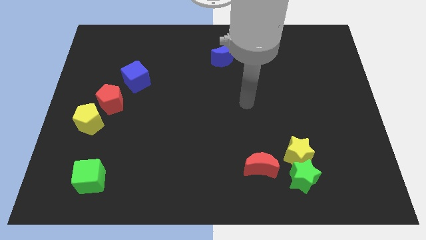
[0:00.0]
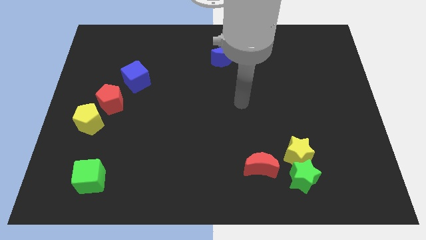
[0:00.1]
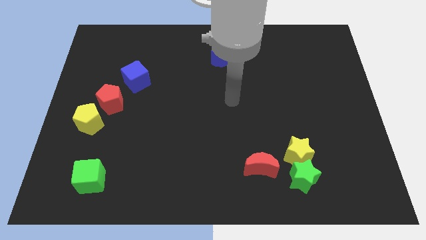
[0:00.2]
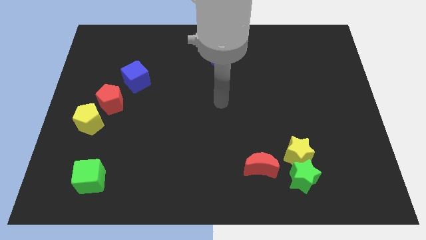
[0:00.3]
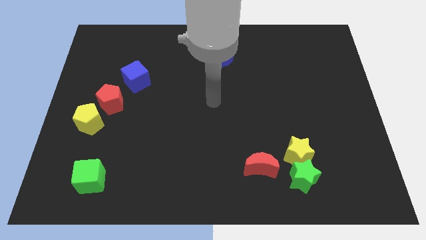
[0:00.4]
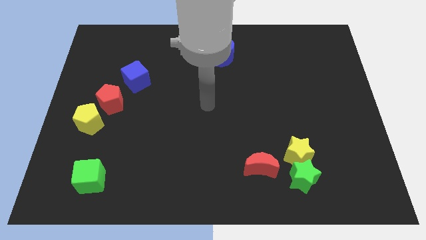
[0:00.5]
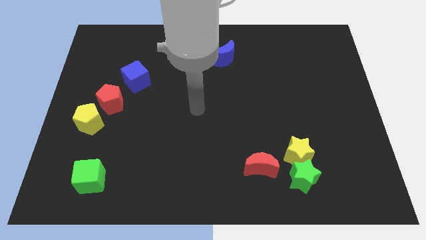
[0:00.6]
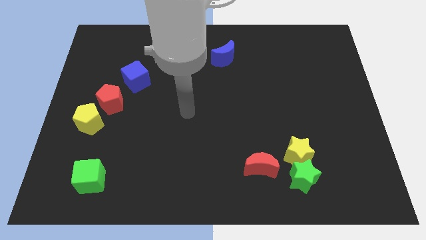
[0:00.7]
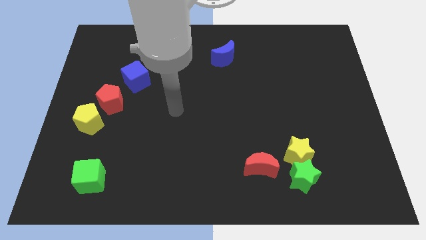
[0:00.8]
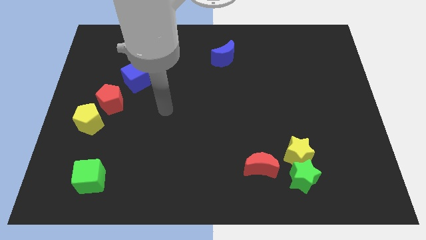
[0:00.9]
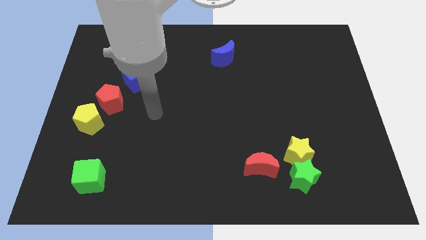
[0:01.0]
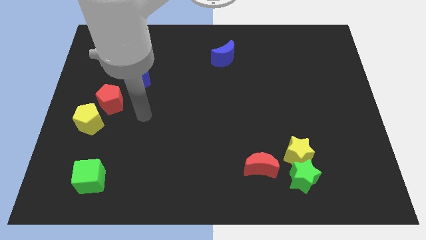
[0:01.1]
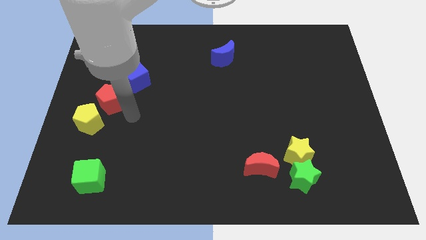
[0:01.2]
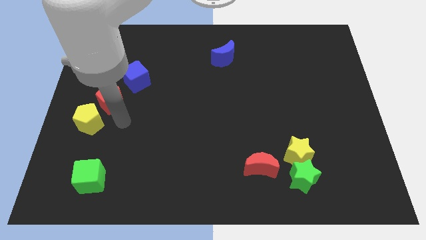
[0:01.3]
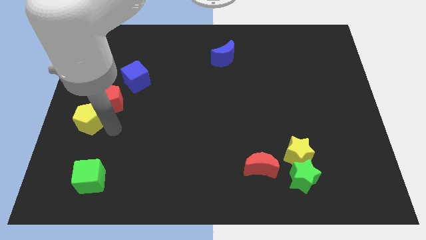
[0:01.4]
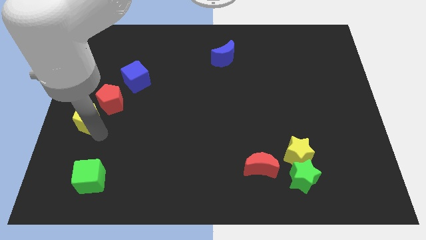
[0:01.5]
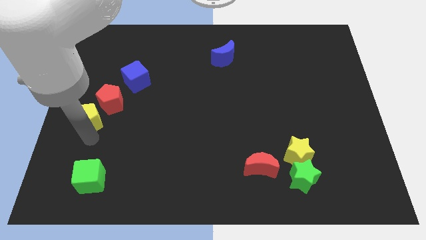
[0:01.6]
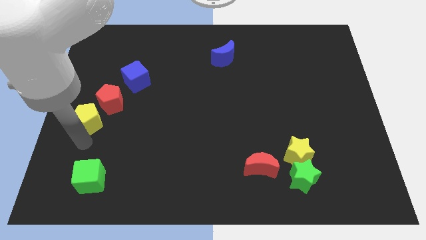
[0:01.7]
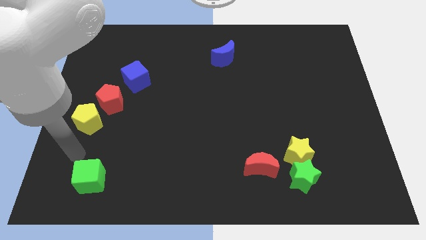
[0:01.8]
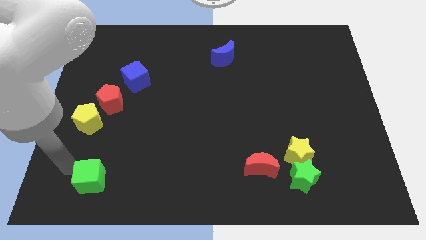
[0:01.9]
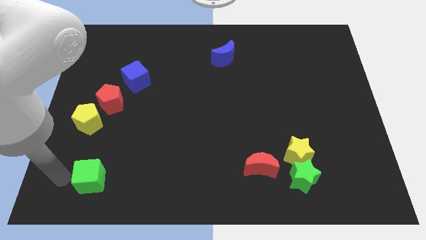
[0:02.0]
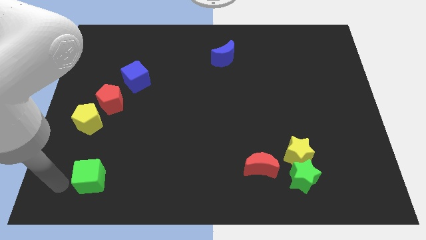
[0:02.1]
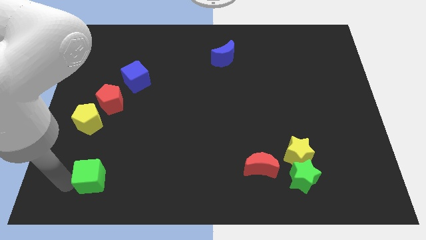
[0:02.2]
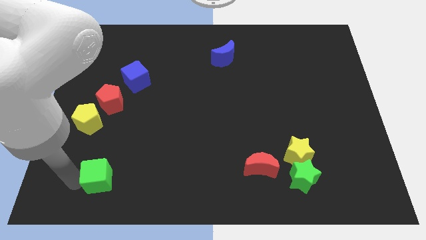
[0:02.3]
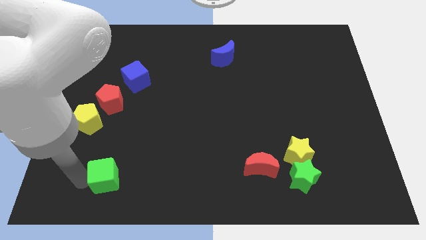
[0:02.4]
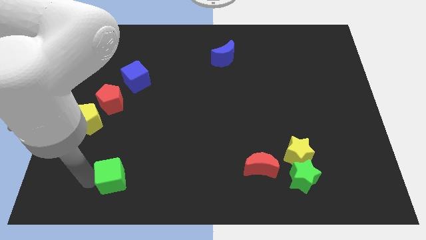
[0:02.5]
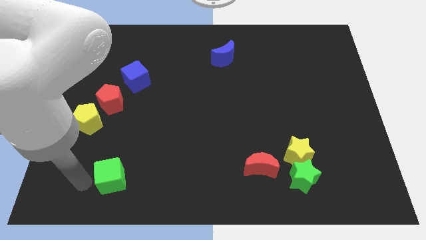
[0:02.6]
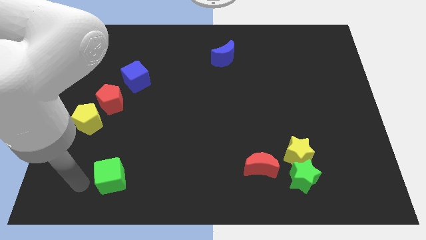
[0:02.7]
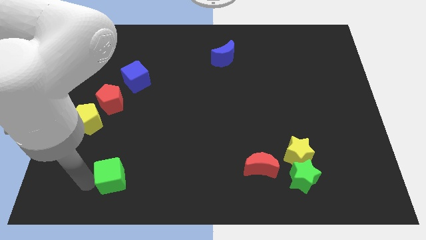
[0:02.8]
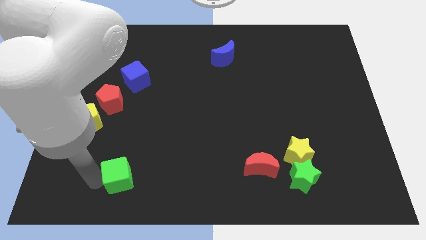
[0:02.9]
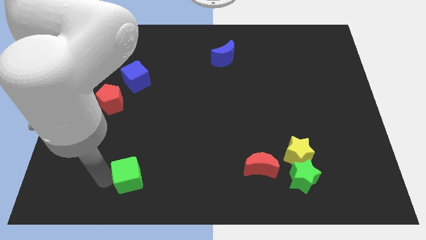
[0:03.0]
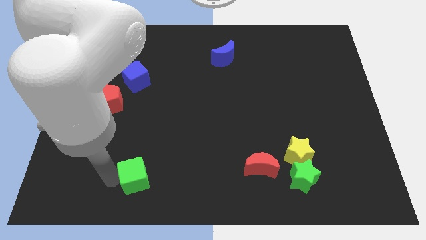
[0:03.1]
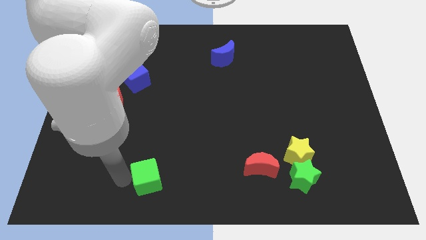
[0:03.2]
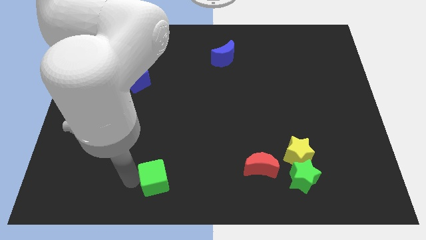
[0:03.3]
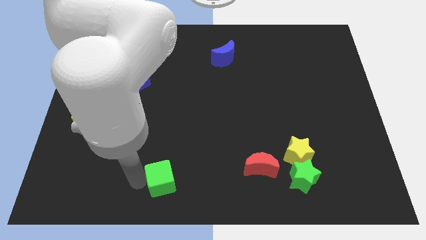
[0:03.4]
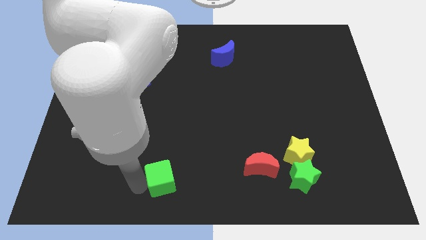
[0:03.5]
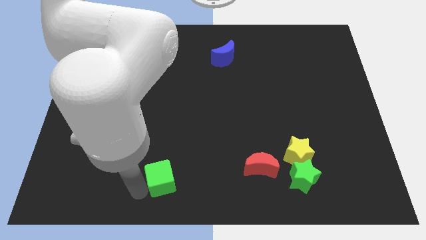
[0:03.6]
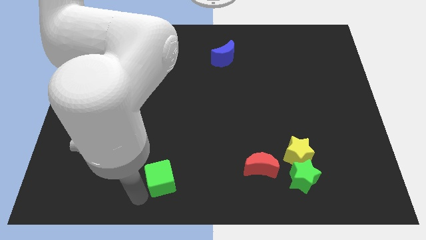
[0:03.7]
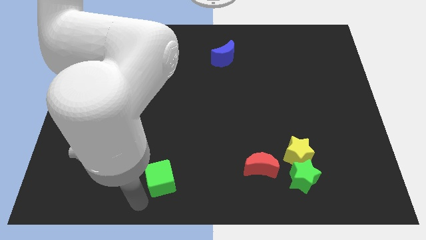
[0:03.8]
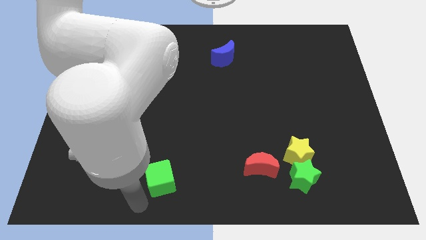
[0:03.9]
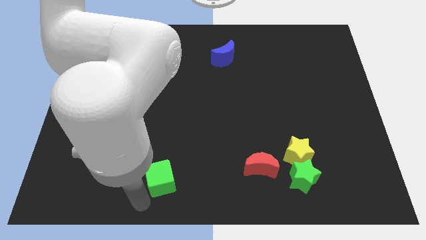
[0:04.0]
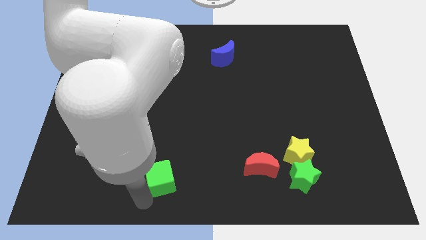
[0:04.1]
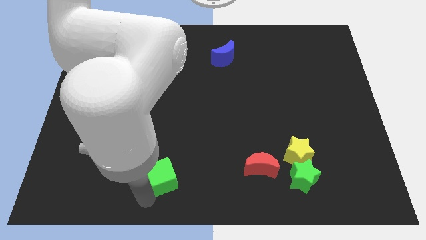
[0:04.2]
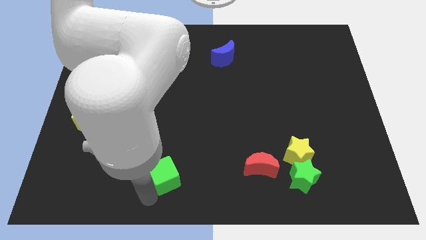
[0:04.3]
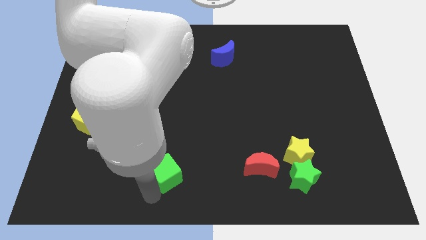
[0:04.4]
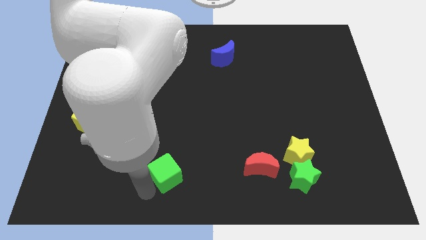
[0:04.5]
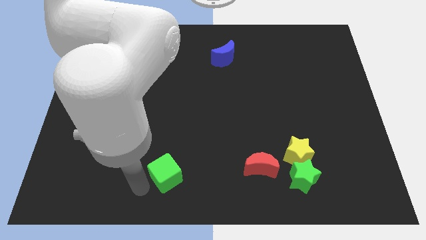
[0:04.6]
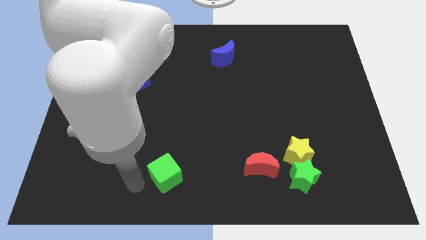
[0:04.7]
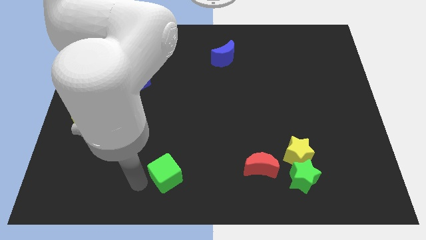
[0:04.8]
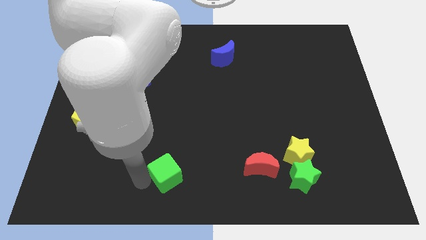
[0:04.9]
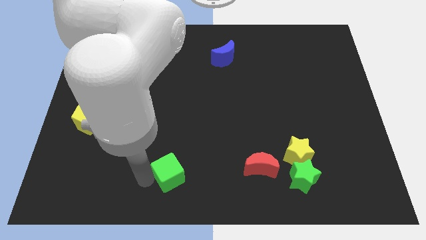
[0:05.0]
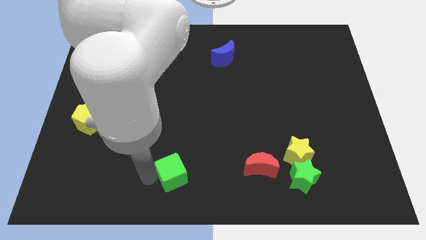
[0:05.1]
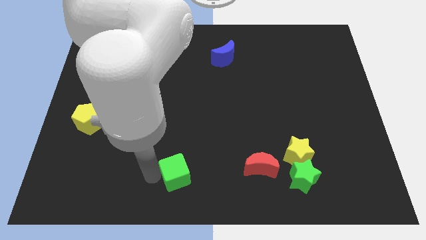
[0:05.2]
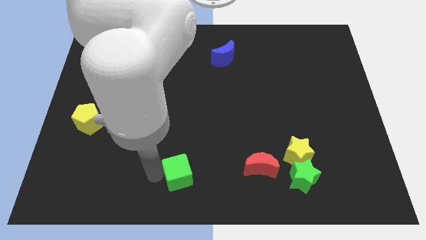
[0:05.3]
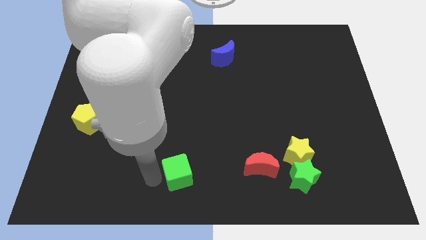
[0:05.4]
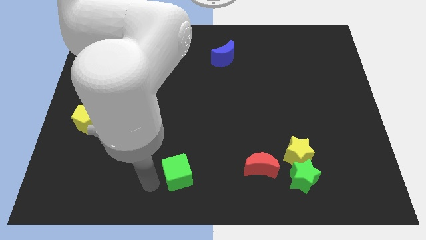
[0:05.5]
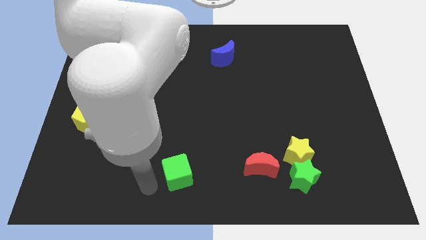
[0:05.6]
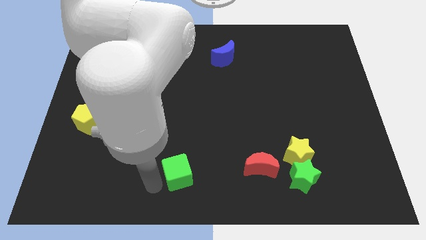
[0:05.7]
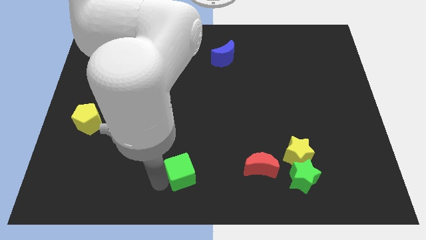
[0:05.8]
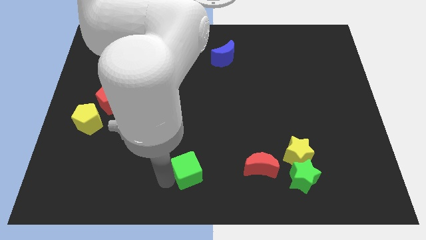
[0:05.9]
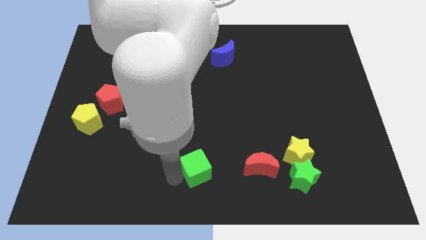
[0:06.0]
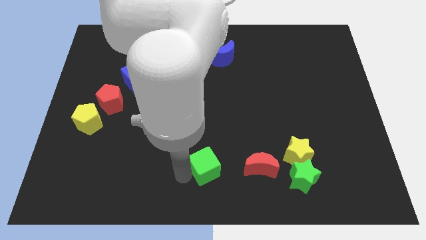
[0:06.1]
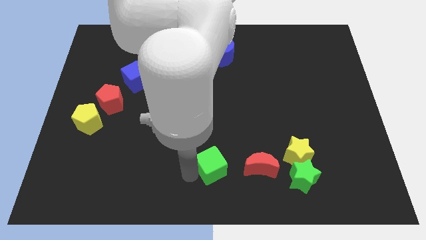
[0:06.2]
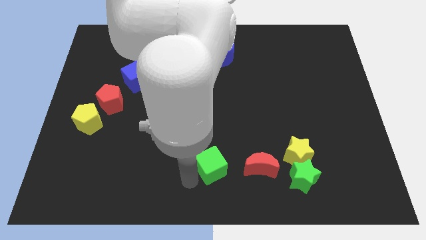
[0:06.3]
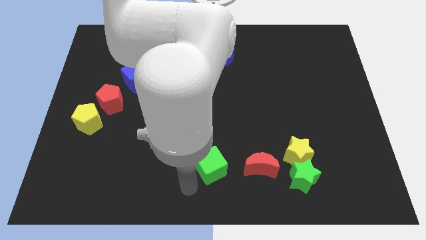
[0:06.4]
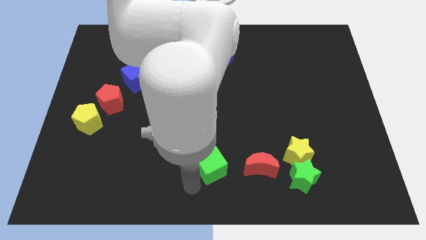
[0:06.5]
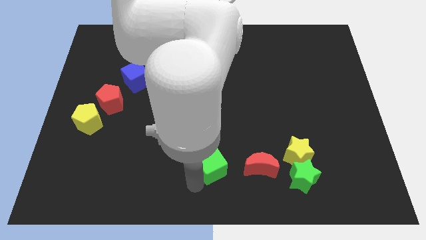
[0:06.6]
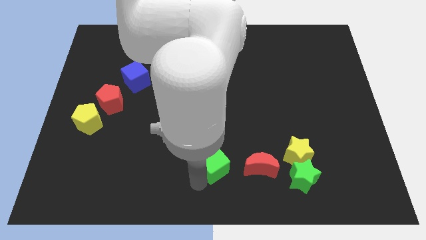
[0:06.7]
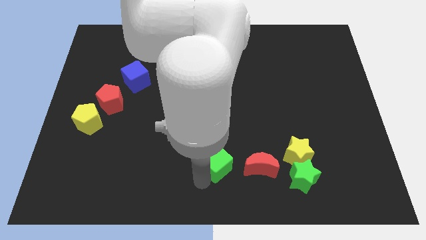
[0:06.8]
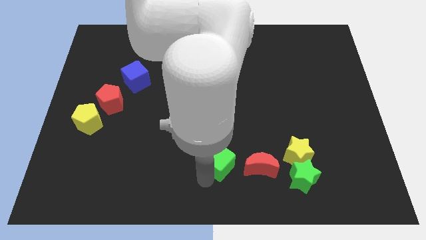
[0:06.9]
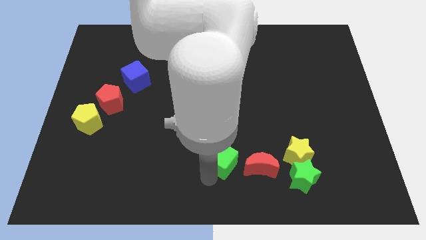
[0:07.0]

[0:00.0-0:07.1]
put the green cube to the top left of the red moon
